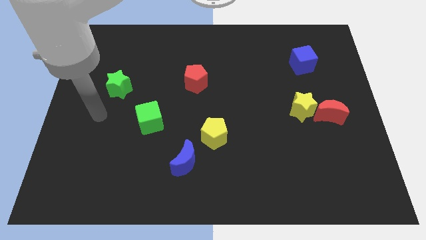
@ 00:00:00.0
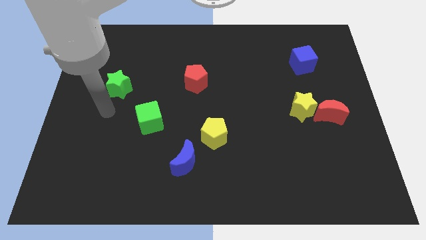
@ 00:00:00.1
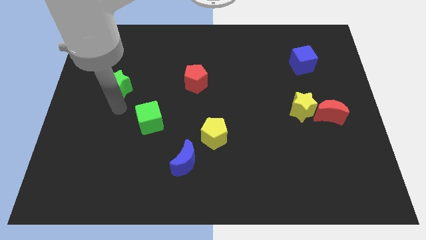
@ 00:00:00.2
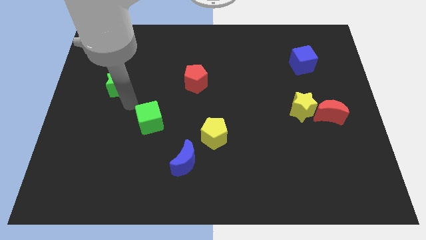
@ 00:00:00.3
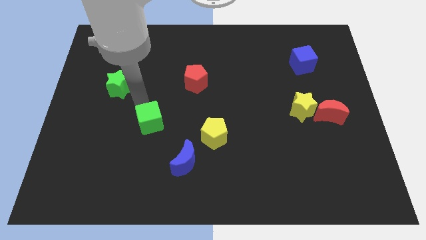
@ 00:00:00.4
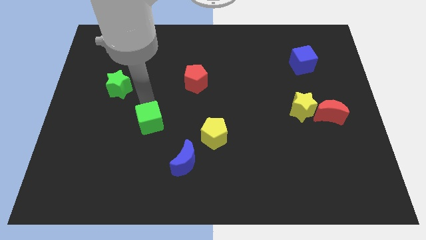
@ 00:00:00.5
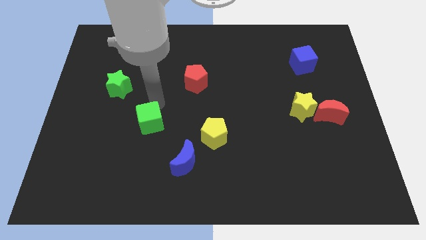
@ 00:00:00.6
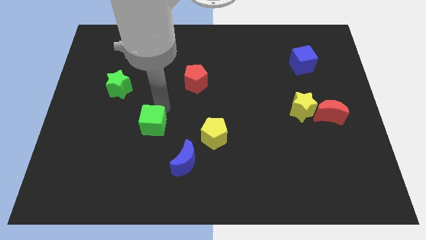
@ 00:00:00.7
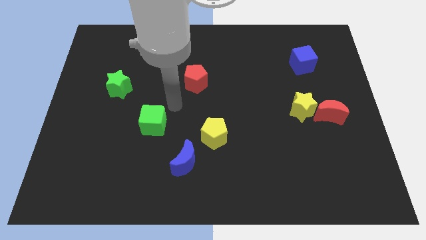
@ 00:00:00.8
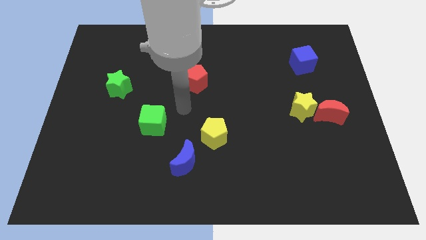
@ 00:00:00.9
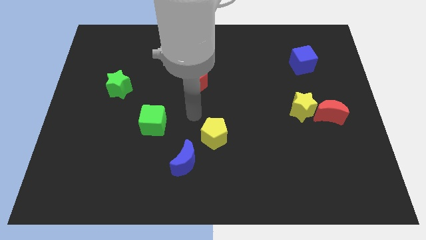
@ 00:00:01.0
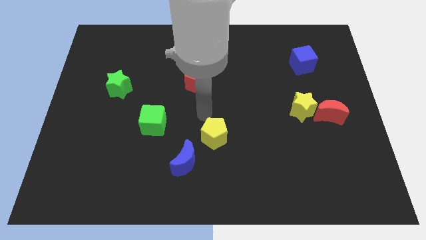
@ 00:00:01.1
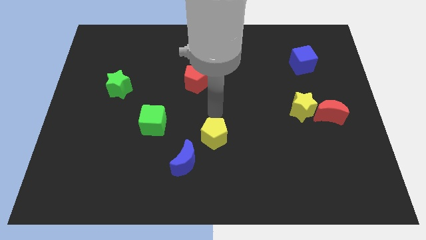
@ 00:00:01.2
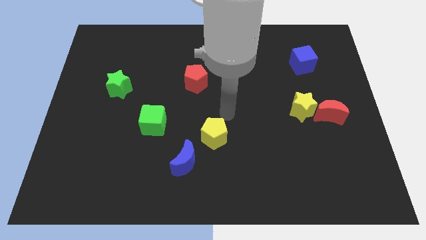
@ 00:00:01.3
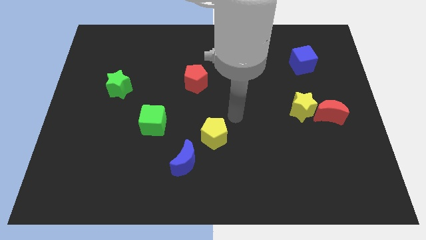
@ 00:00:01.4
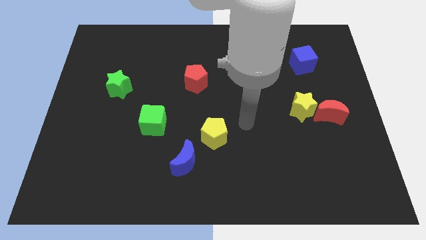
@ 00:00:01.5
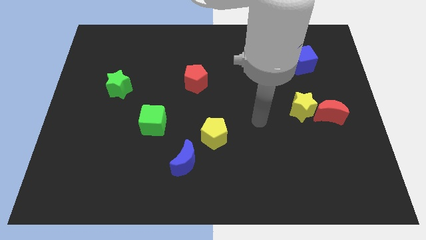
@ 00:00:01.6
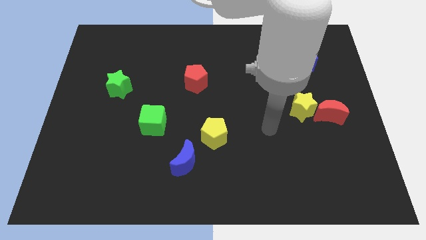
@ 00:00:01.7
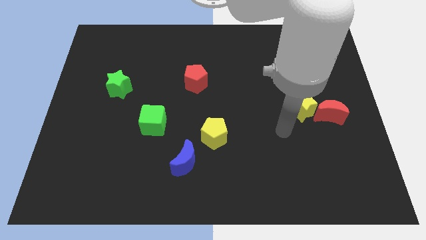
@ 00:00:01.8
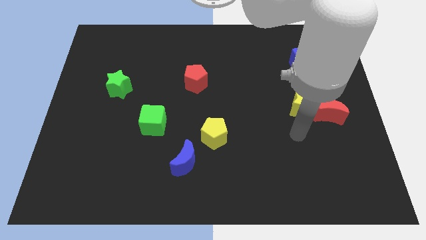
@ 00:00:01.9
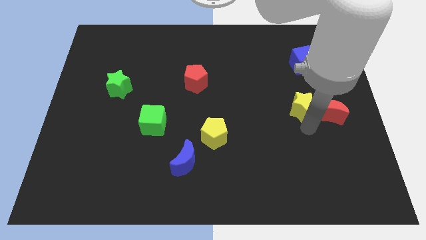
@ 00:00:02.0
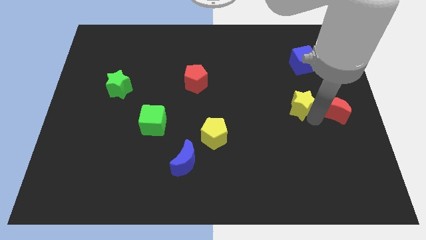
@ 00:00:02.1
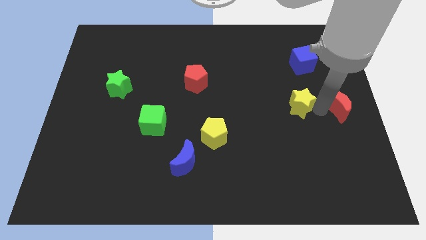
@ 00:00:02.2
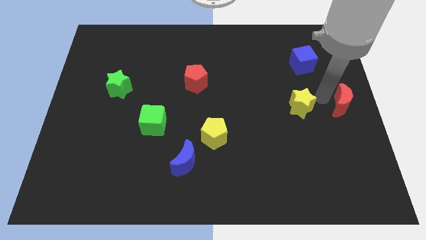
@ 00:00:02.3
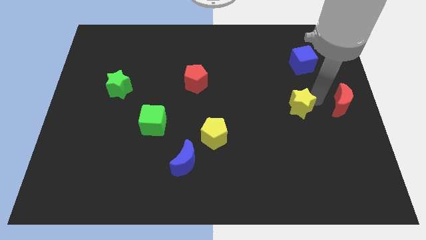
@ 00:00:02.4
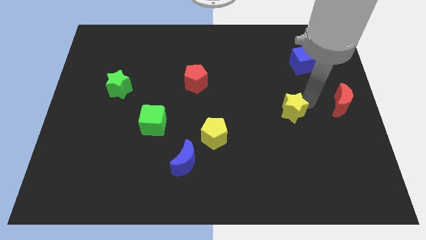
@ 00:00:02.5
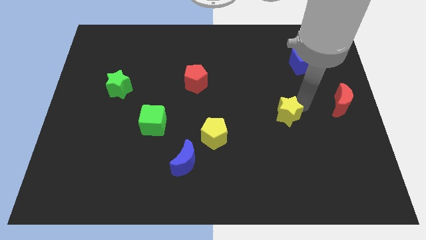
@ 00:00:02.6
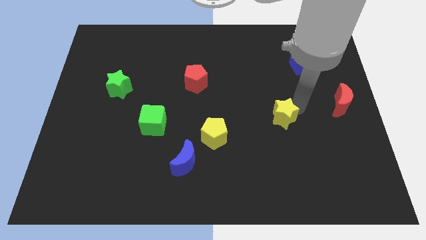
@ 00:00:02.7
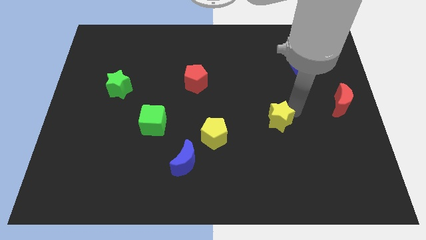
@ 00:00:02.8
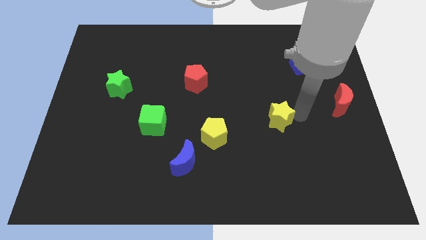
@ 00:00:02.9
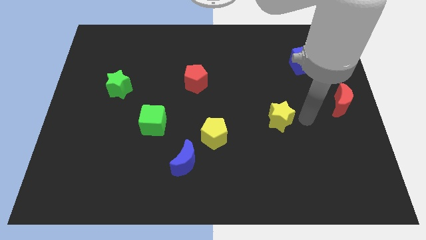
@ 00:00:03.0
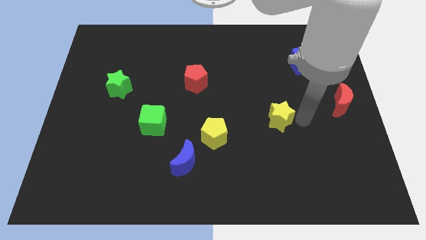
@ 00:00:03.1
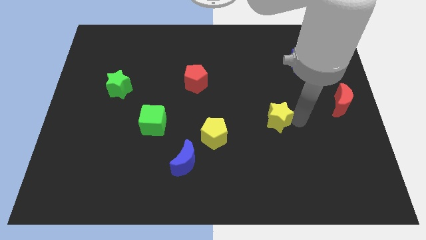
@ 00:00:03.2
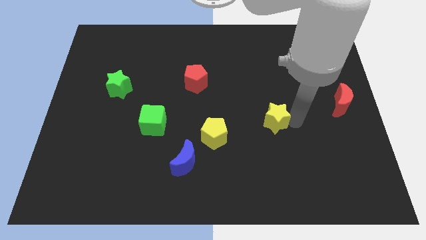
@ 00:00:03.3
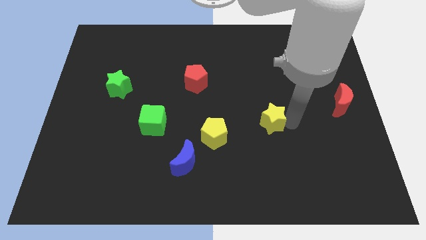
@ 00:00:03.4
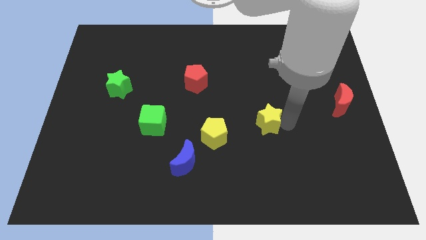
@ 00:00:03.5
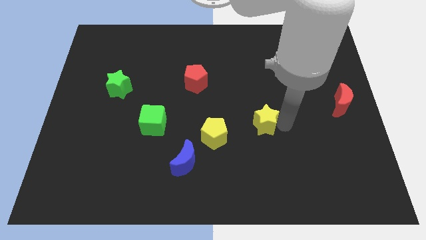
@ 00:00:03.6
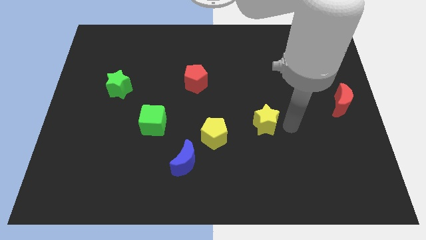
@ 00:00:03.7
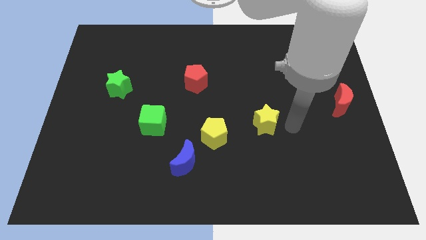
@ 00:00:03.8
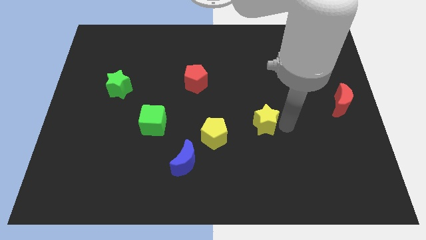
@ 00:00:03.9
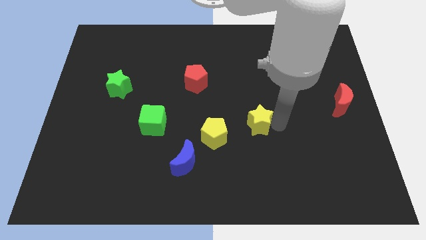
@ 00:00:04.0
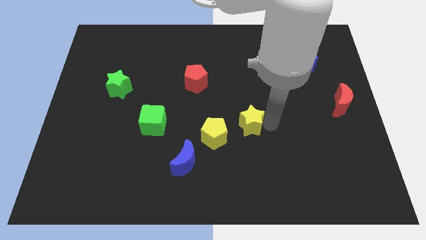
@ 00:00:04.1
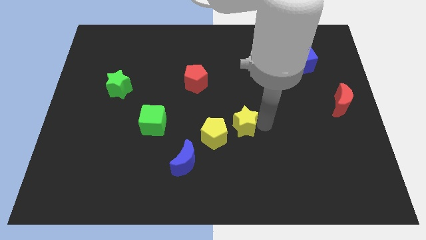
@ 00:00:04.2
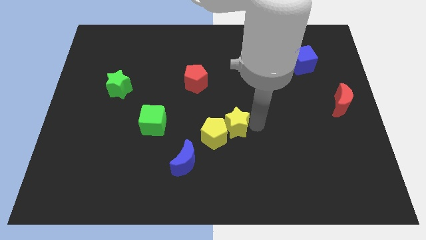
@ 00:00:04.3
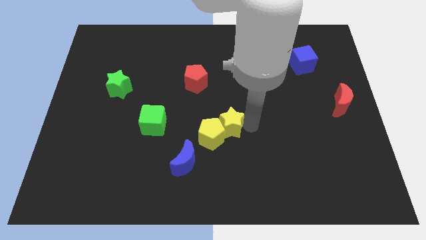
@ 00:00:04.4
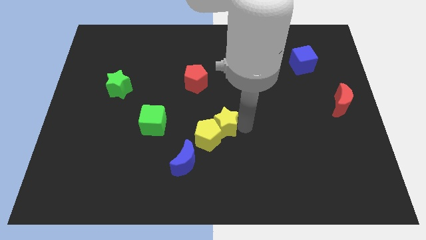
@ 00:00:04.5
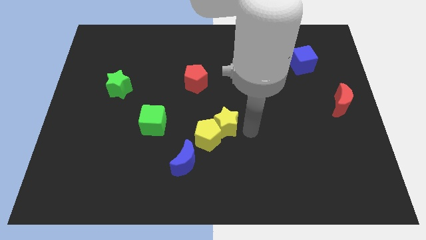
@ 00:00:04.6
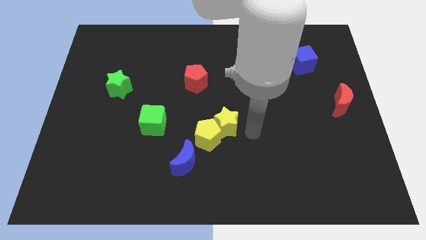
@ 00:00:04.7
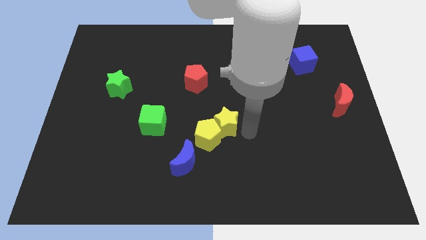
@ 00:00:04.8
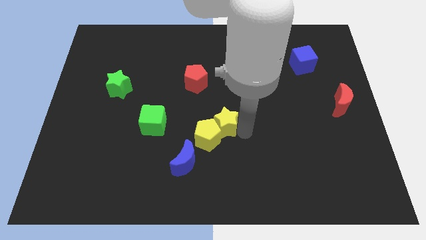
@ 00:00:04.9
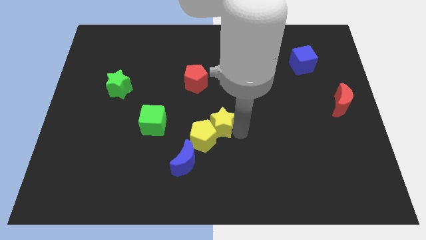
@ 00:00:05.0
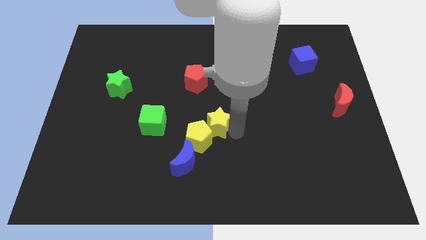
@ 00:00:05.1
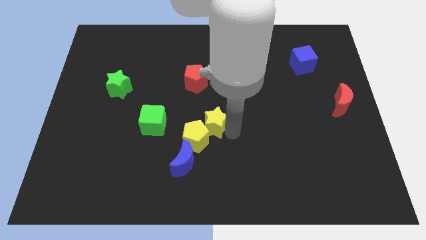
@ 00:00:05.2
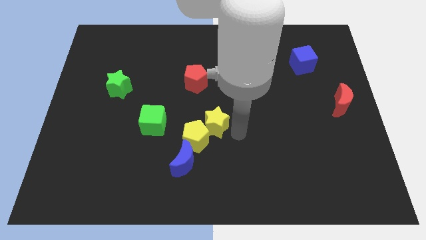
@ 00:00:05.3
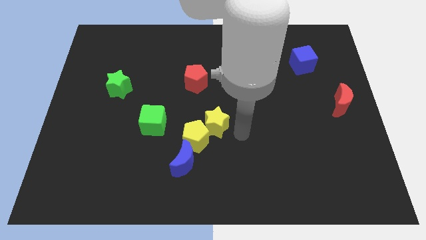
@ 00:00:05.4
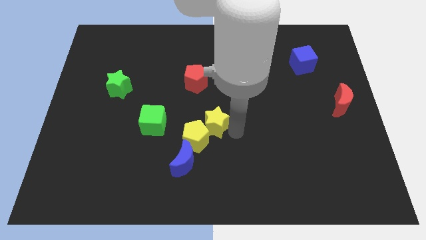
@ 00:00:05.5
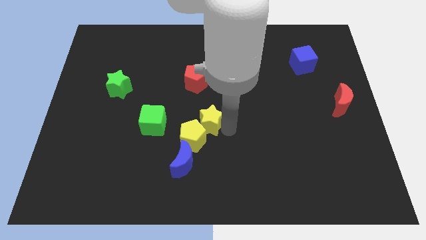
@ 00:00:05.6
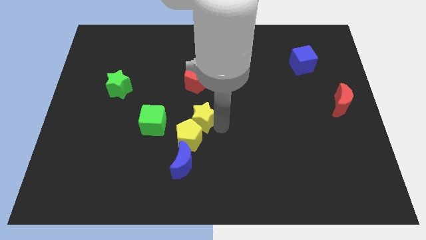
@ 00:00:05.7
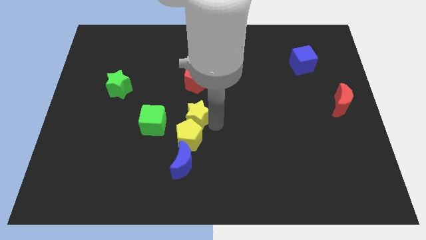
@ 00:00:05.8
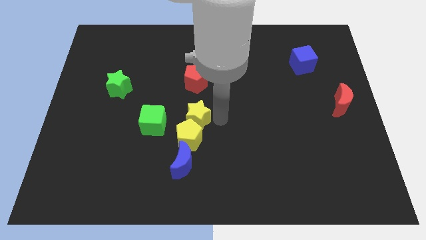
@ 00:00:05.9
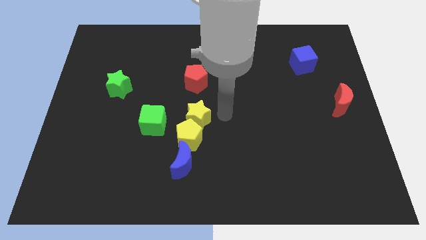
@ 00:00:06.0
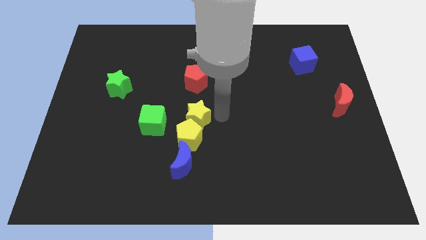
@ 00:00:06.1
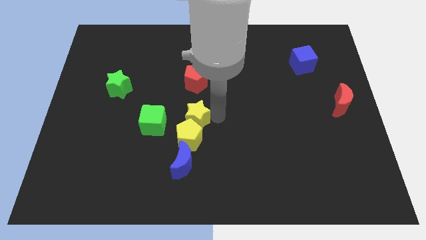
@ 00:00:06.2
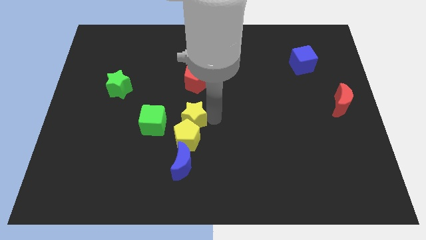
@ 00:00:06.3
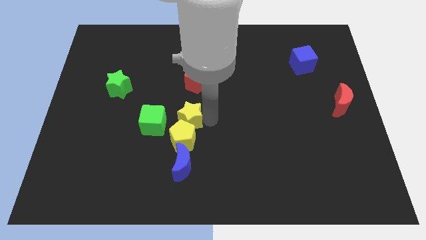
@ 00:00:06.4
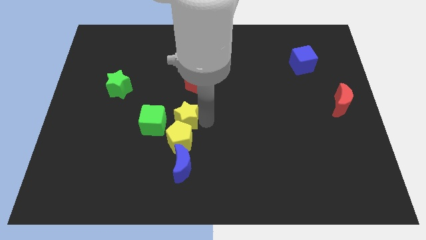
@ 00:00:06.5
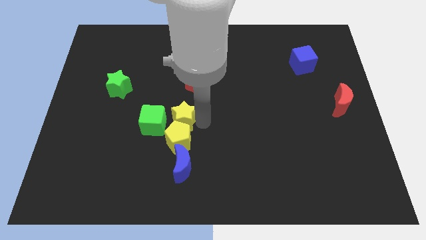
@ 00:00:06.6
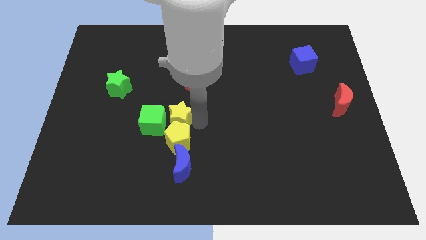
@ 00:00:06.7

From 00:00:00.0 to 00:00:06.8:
put the yellow star close to the green cube
